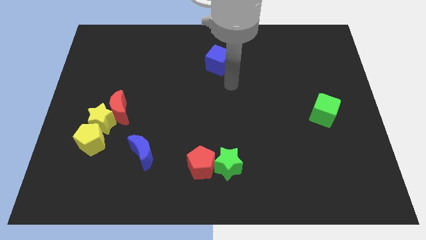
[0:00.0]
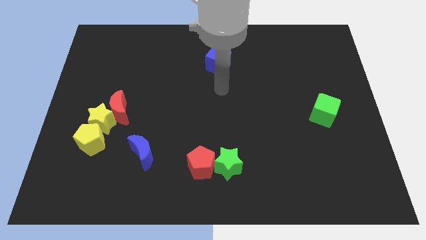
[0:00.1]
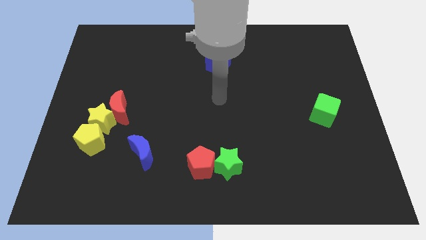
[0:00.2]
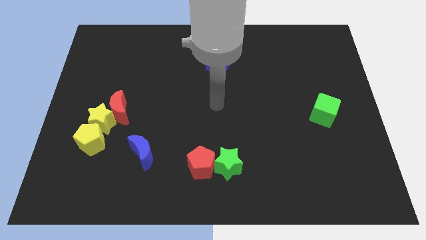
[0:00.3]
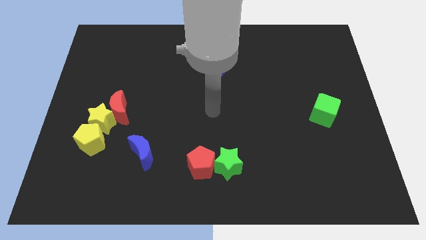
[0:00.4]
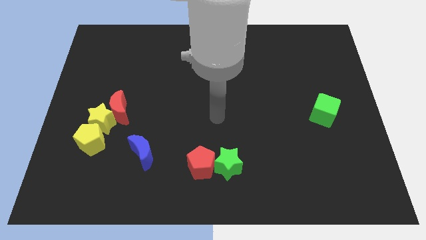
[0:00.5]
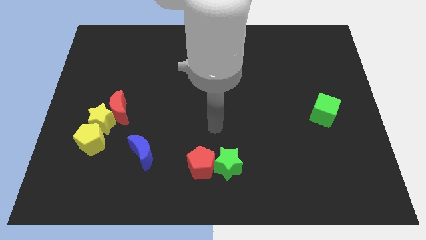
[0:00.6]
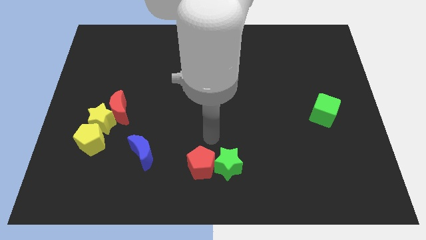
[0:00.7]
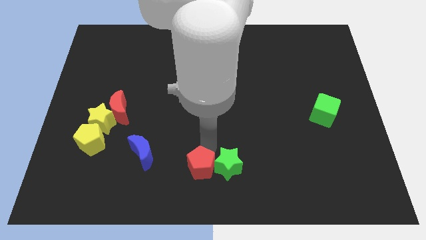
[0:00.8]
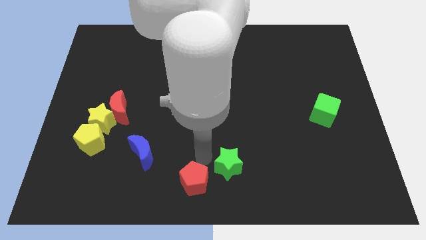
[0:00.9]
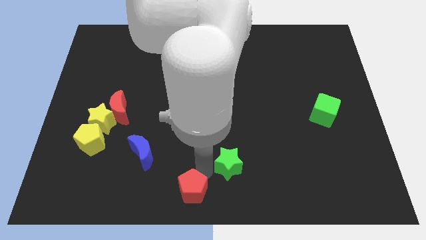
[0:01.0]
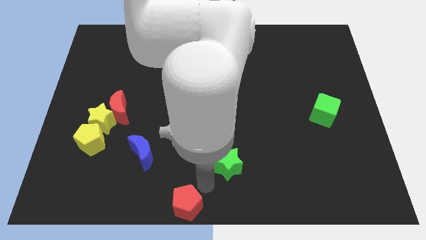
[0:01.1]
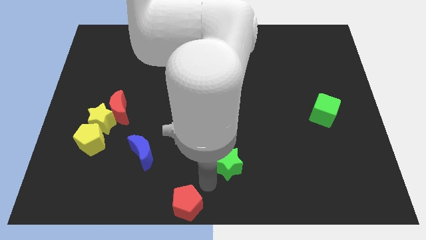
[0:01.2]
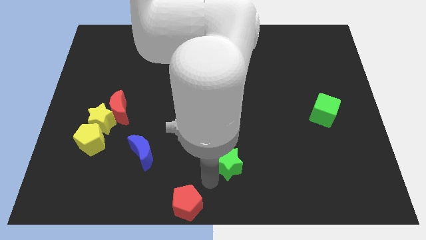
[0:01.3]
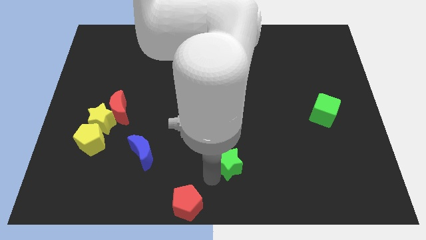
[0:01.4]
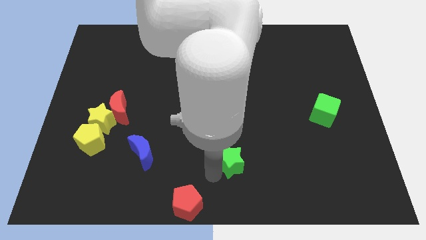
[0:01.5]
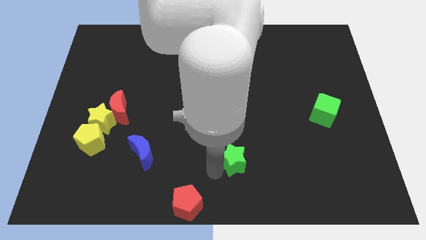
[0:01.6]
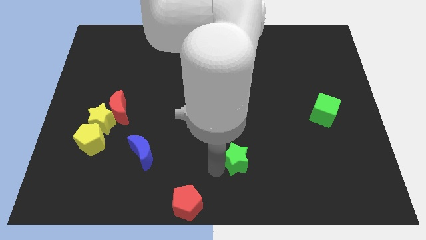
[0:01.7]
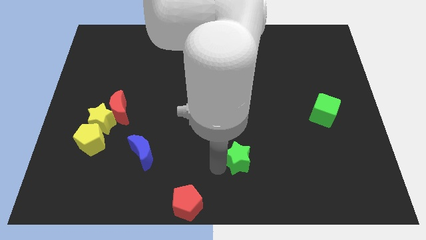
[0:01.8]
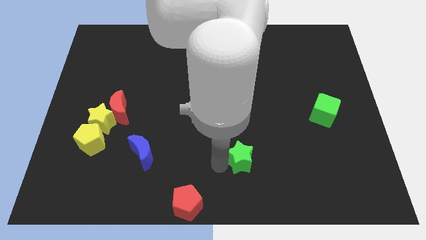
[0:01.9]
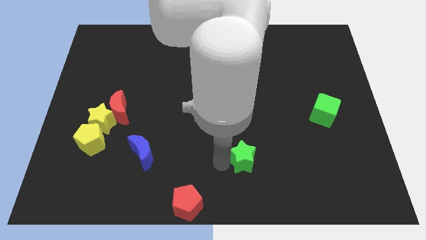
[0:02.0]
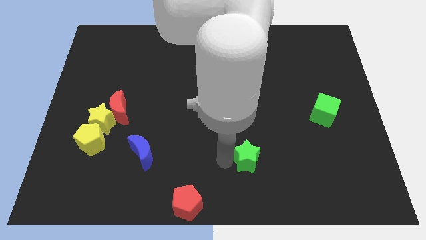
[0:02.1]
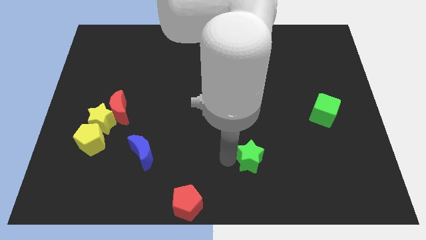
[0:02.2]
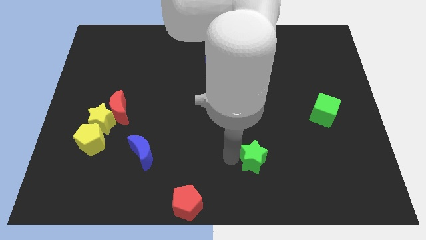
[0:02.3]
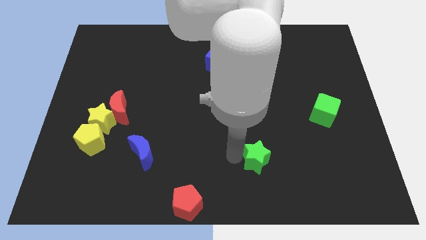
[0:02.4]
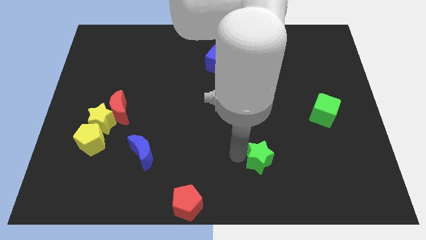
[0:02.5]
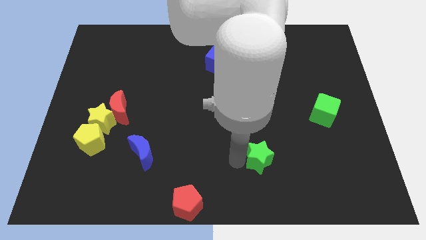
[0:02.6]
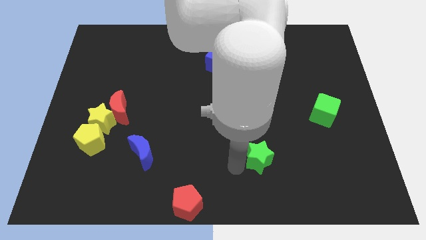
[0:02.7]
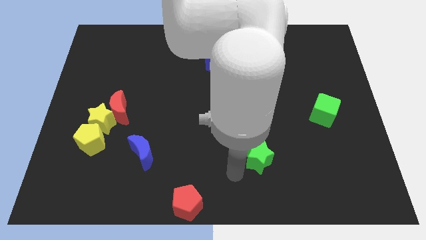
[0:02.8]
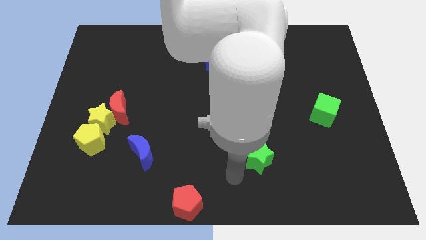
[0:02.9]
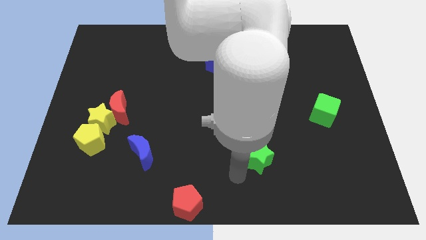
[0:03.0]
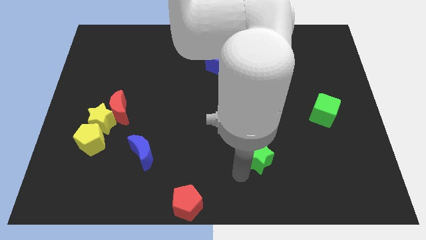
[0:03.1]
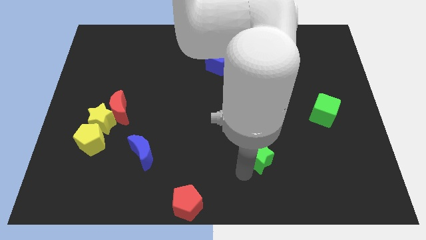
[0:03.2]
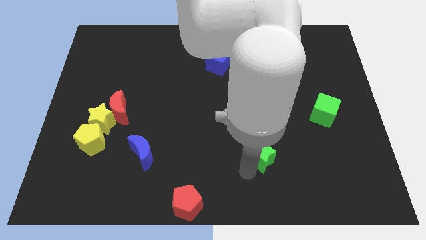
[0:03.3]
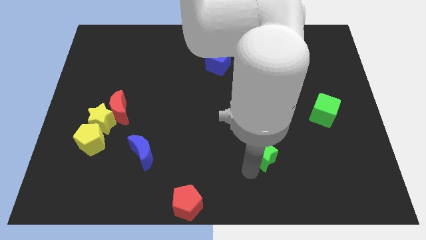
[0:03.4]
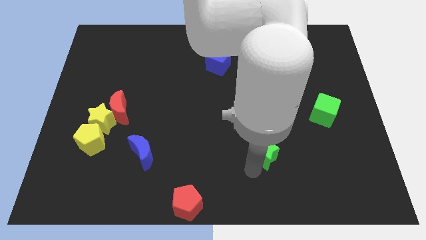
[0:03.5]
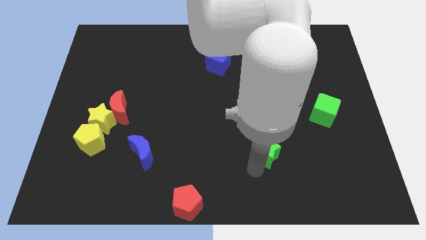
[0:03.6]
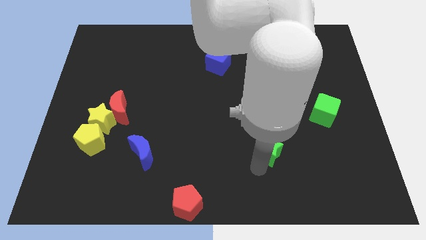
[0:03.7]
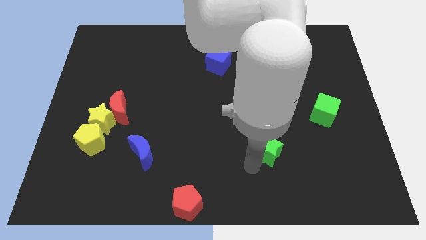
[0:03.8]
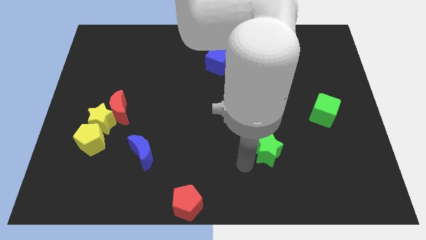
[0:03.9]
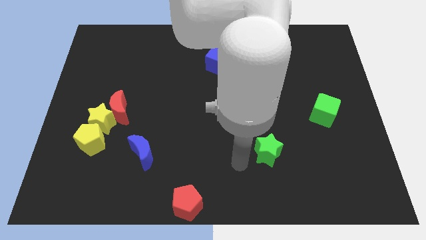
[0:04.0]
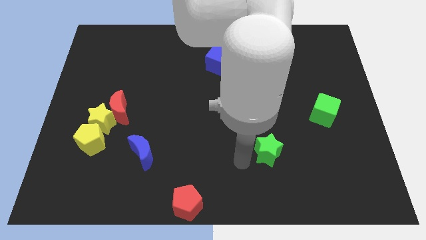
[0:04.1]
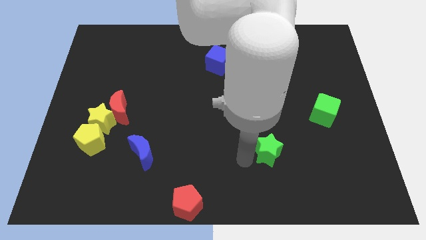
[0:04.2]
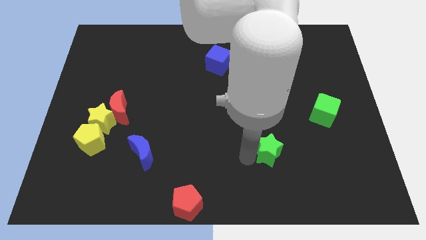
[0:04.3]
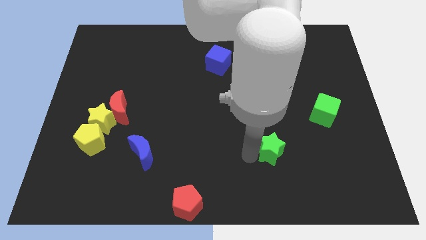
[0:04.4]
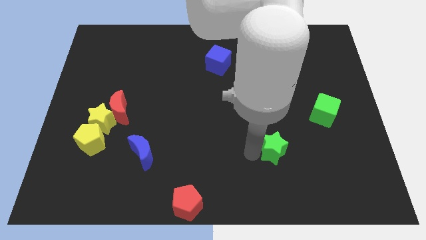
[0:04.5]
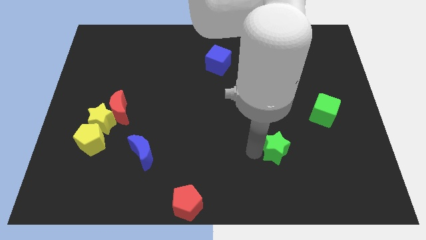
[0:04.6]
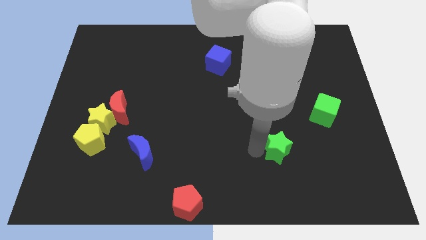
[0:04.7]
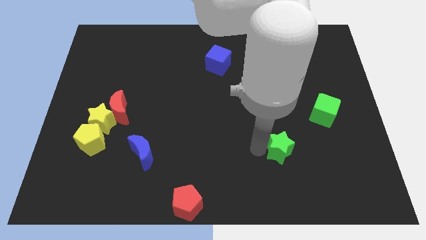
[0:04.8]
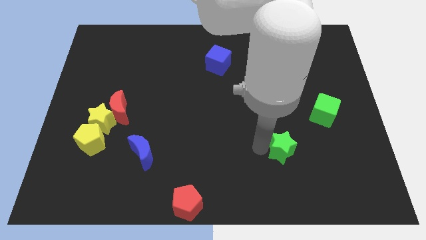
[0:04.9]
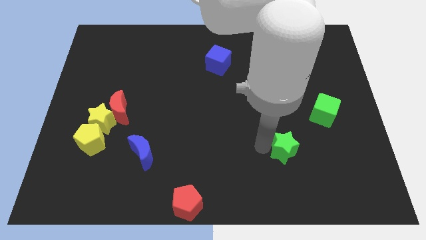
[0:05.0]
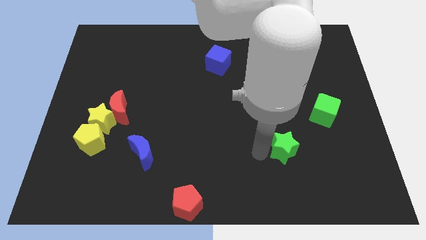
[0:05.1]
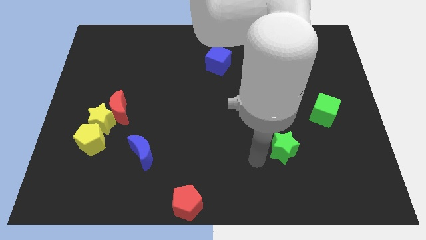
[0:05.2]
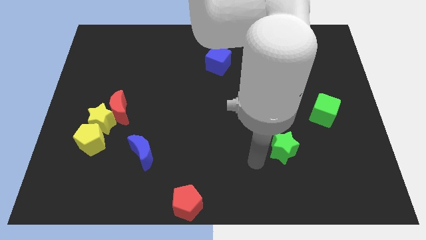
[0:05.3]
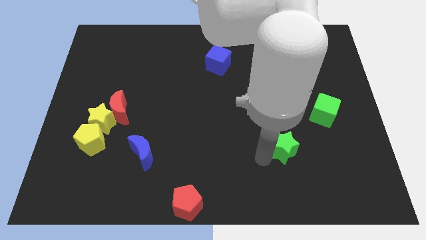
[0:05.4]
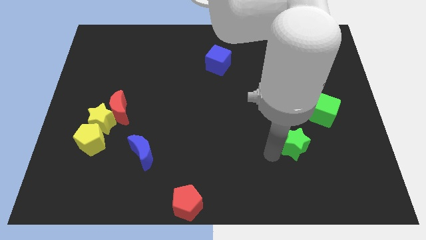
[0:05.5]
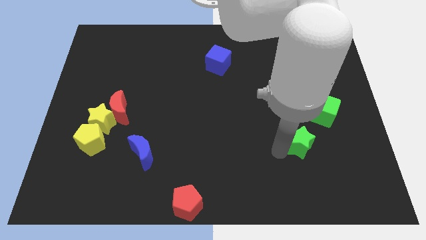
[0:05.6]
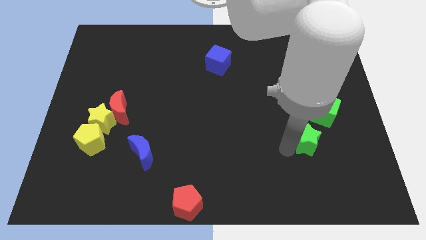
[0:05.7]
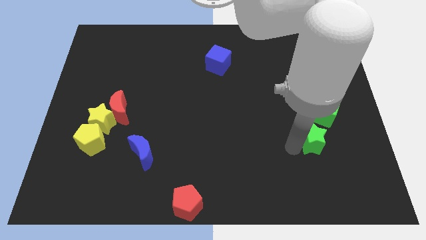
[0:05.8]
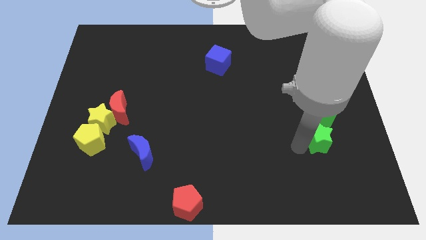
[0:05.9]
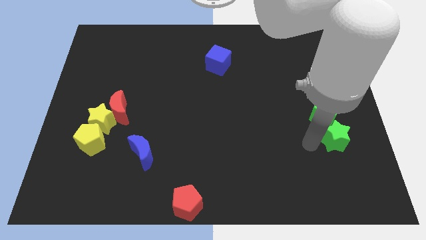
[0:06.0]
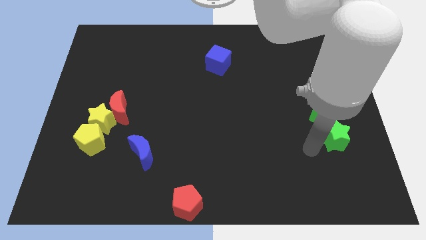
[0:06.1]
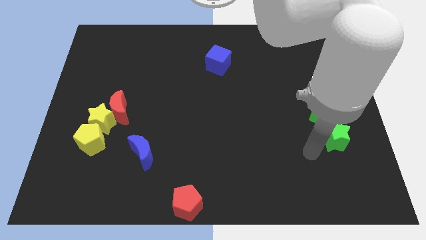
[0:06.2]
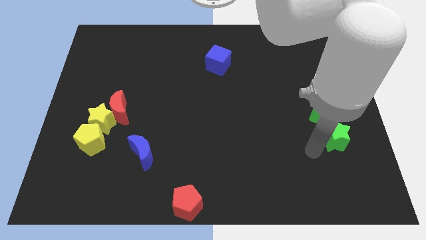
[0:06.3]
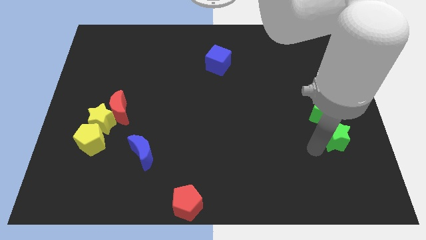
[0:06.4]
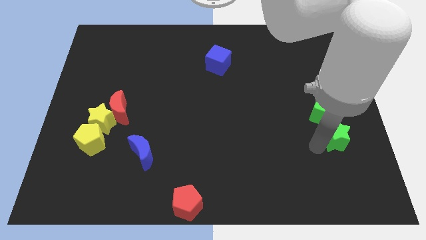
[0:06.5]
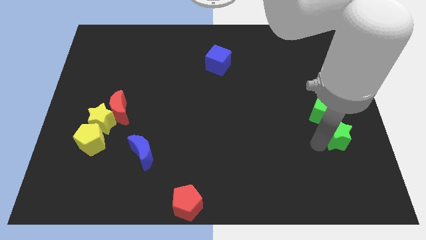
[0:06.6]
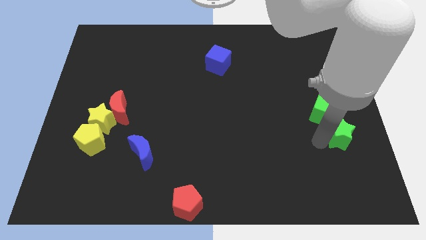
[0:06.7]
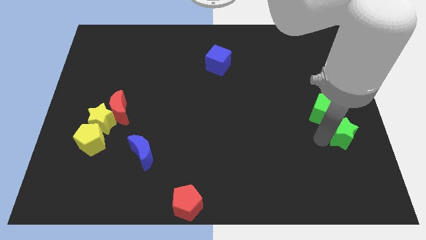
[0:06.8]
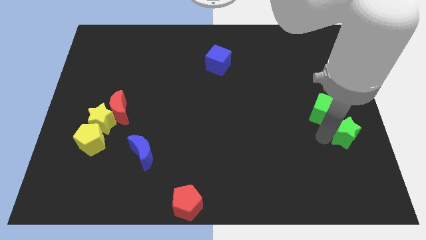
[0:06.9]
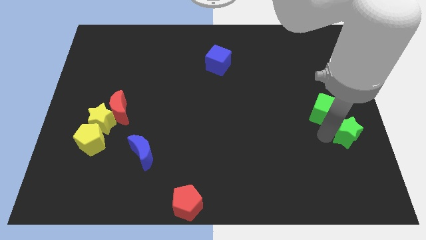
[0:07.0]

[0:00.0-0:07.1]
put the green star to the center right
